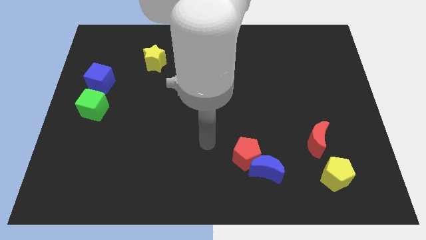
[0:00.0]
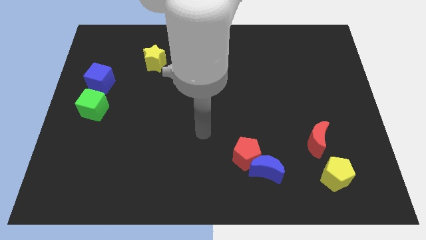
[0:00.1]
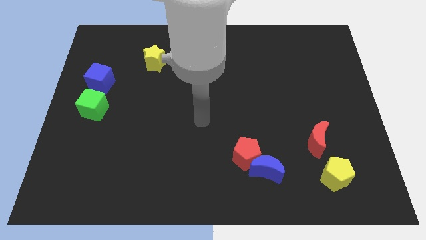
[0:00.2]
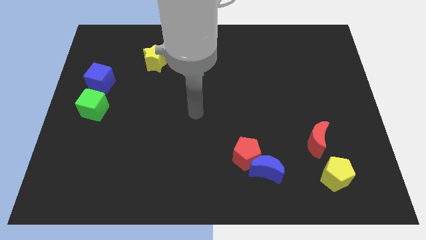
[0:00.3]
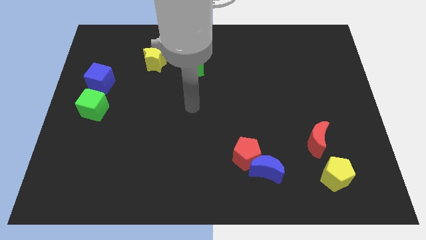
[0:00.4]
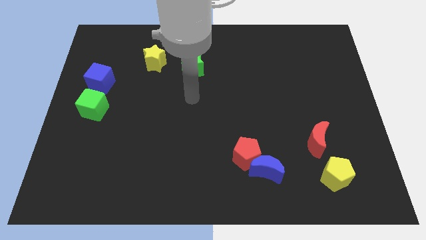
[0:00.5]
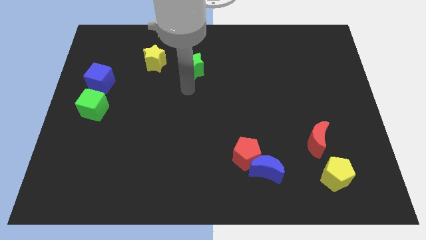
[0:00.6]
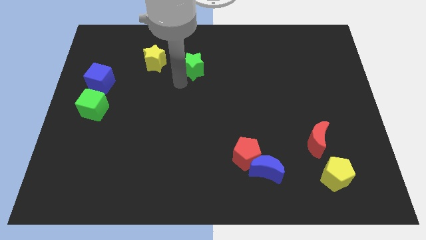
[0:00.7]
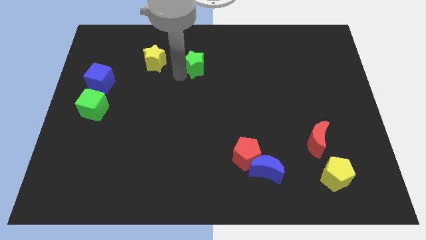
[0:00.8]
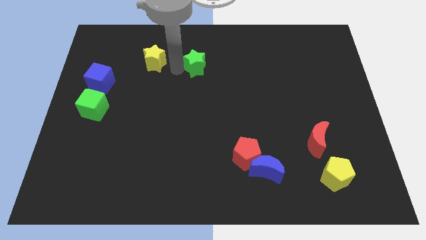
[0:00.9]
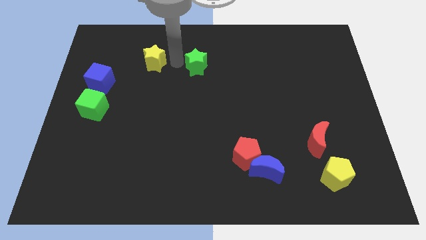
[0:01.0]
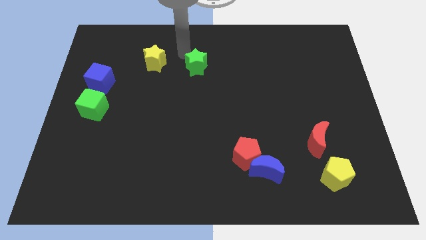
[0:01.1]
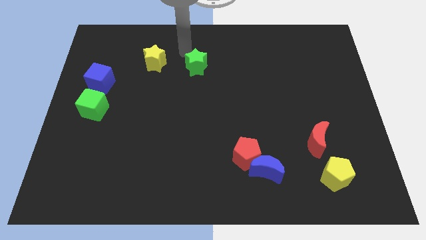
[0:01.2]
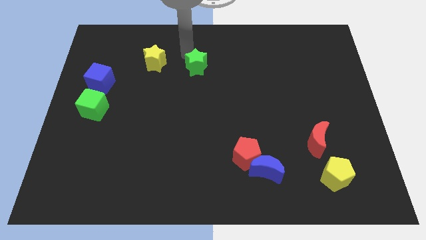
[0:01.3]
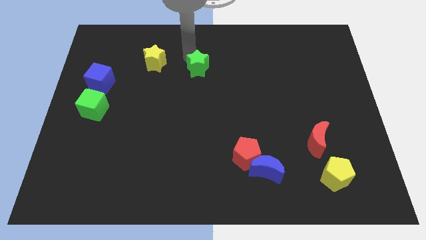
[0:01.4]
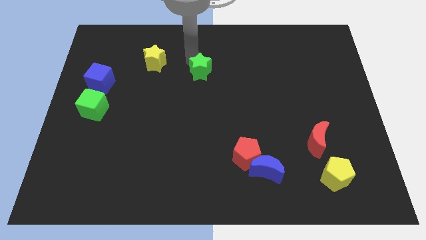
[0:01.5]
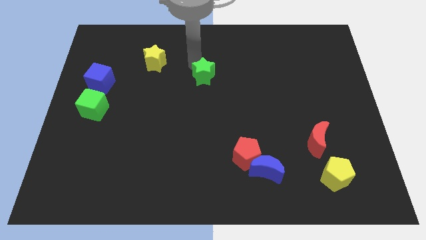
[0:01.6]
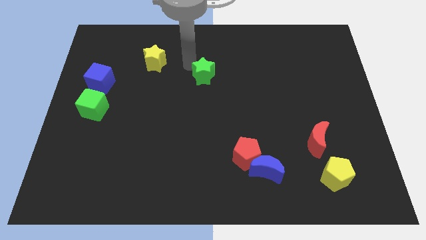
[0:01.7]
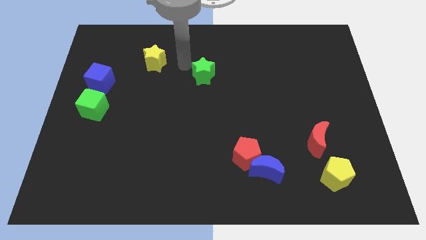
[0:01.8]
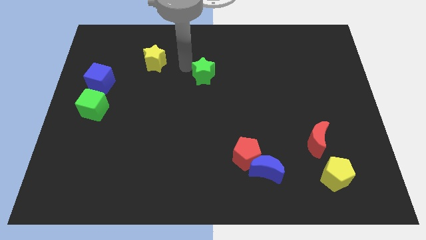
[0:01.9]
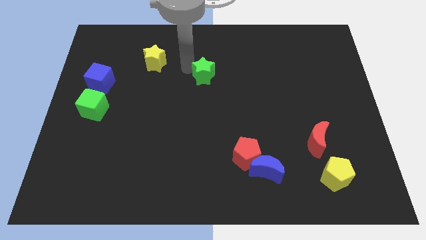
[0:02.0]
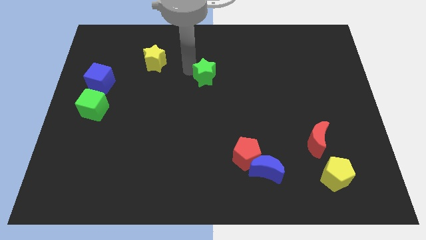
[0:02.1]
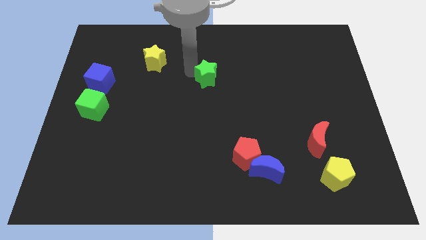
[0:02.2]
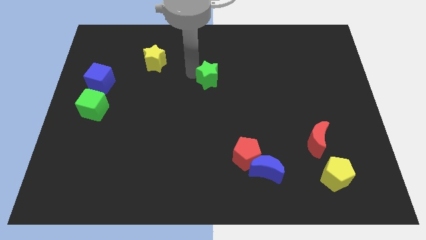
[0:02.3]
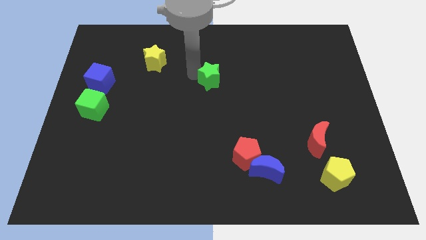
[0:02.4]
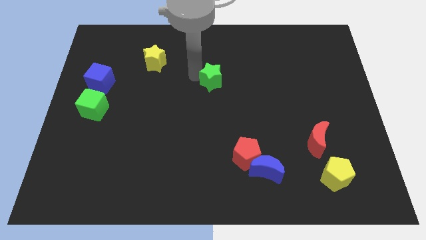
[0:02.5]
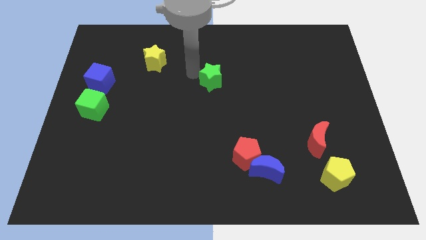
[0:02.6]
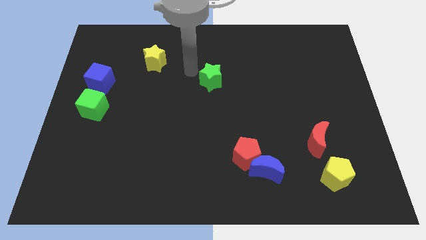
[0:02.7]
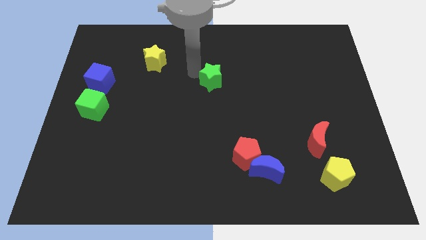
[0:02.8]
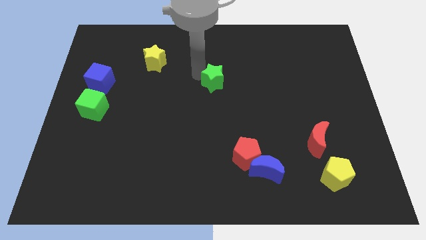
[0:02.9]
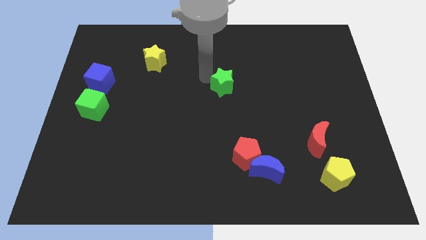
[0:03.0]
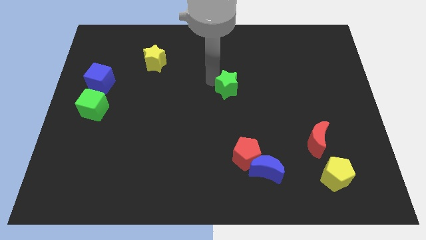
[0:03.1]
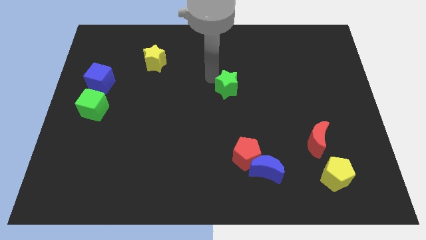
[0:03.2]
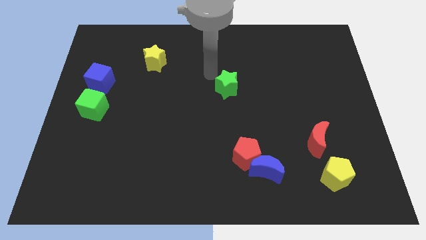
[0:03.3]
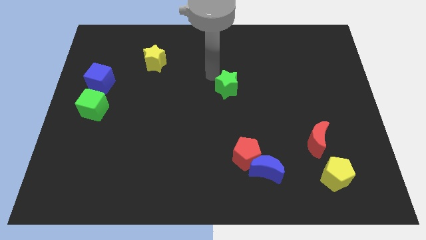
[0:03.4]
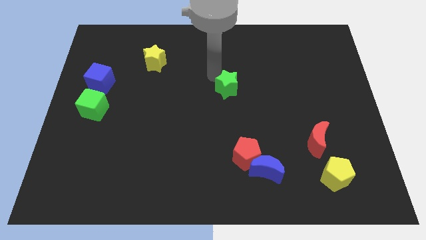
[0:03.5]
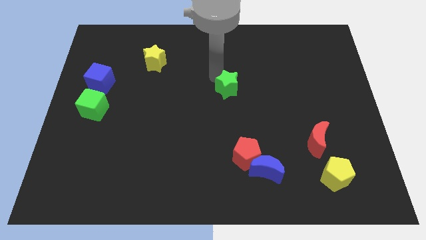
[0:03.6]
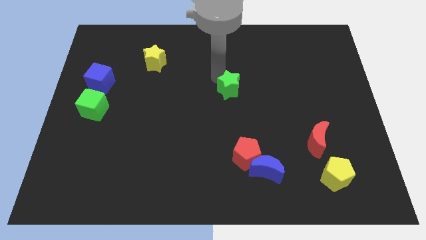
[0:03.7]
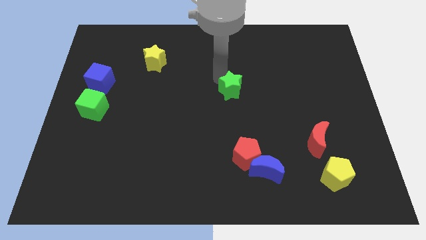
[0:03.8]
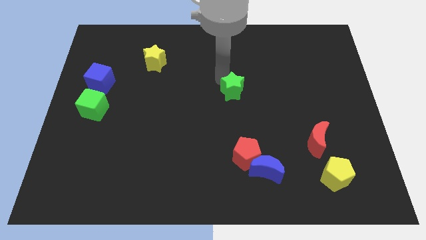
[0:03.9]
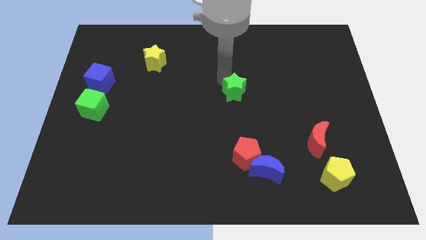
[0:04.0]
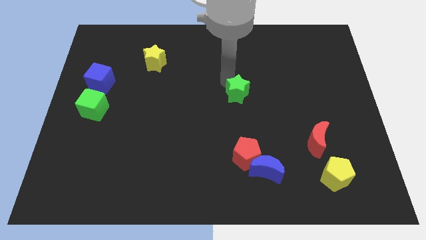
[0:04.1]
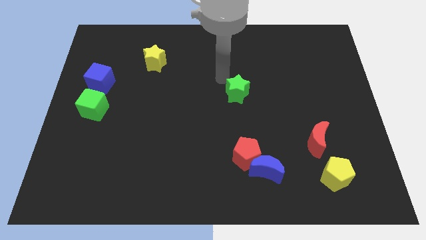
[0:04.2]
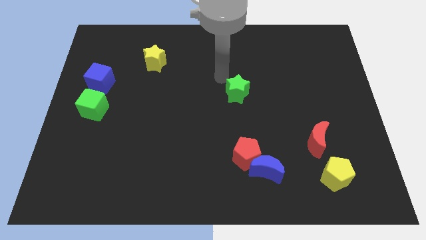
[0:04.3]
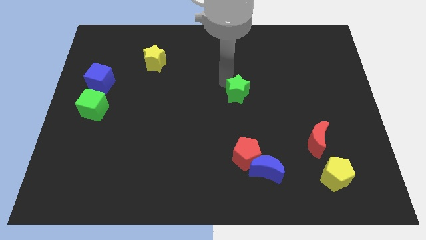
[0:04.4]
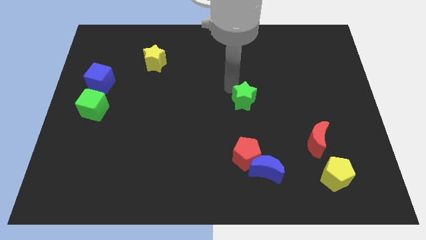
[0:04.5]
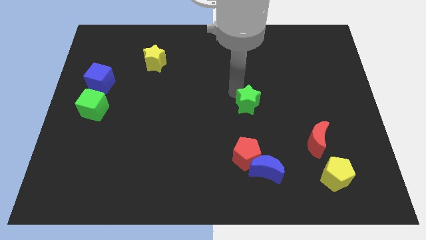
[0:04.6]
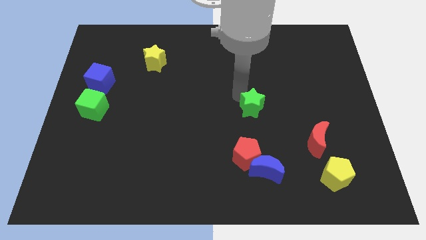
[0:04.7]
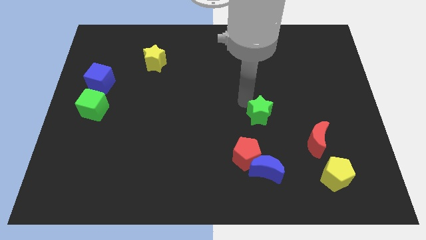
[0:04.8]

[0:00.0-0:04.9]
push the green star downwards and to the right diagonally

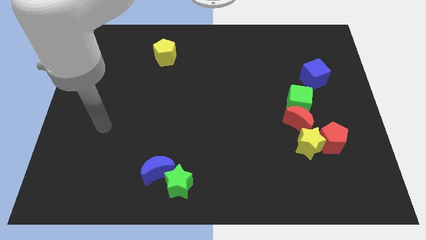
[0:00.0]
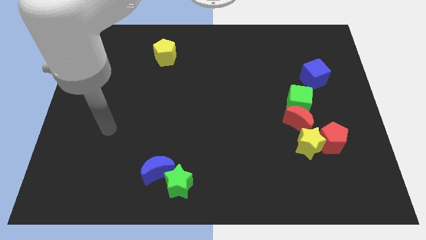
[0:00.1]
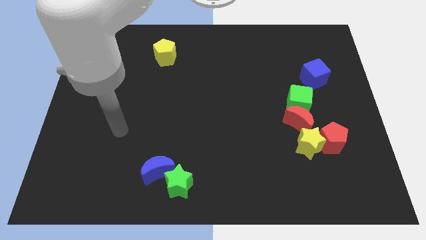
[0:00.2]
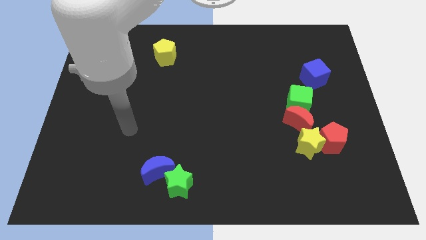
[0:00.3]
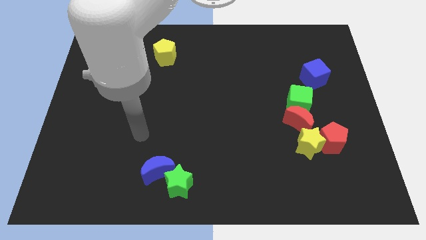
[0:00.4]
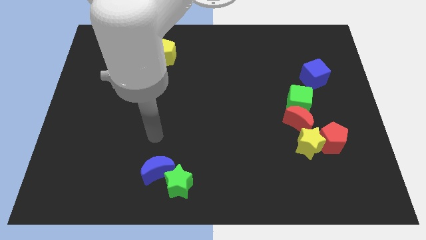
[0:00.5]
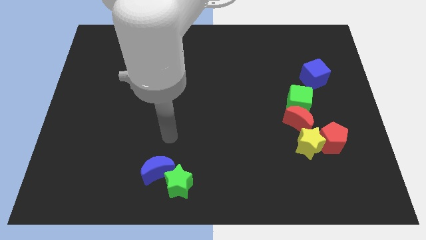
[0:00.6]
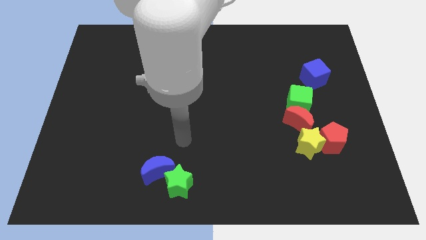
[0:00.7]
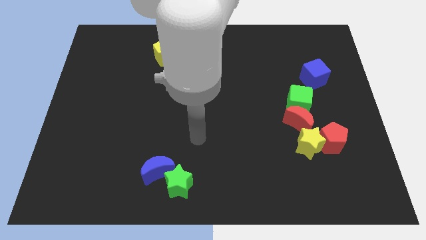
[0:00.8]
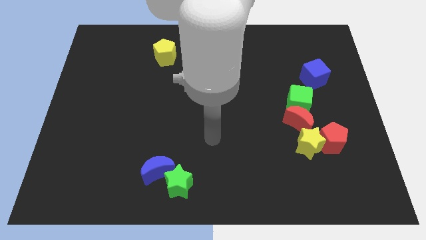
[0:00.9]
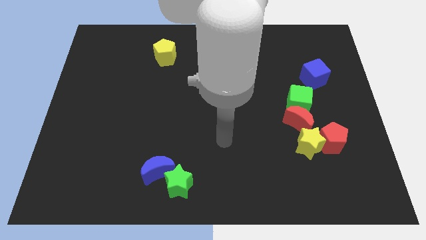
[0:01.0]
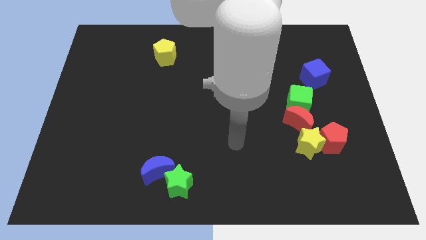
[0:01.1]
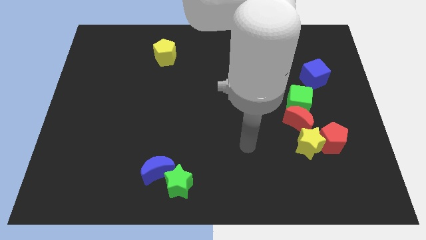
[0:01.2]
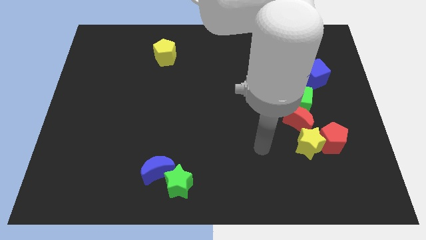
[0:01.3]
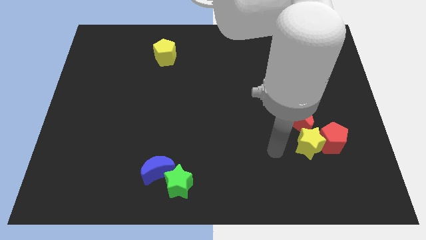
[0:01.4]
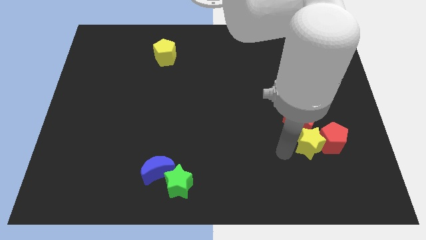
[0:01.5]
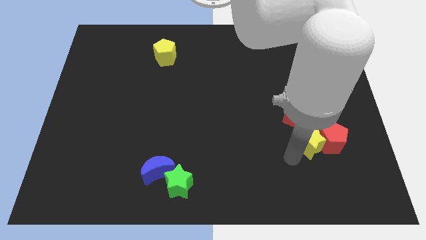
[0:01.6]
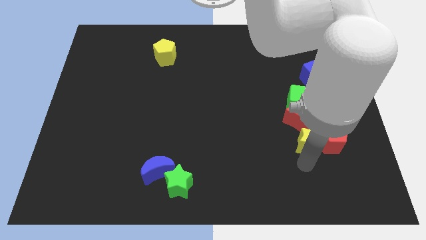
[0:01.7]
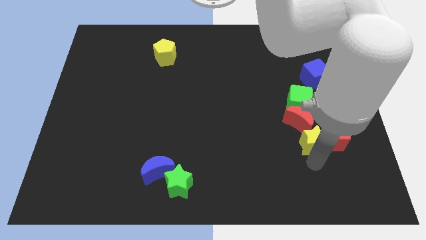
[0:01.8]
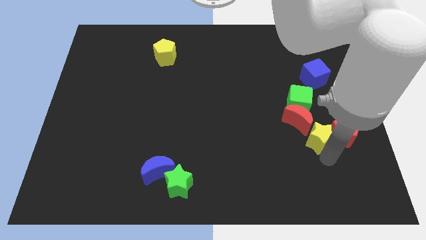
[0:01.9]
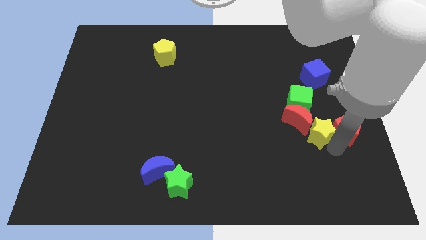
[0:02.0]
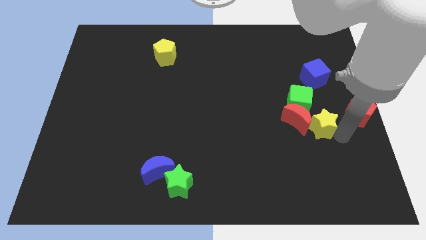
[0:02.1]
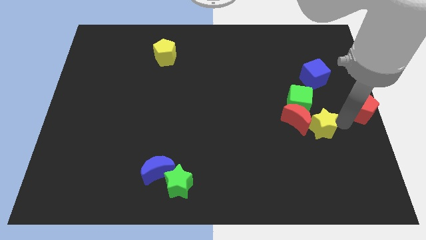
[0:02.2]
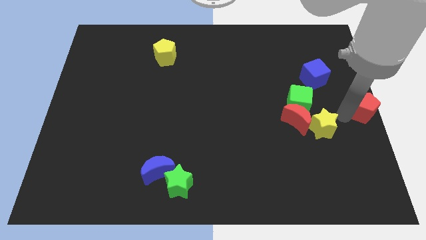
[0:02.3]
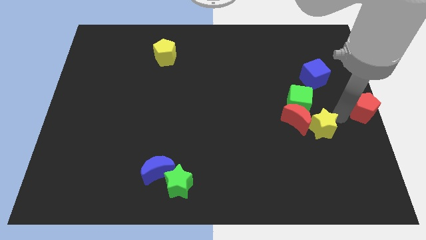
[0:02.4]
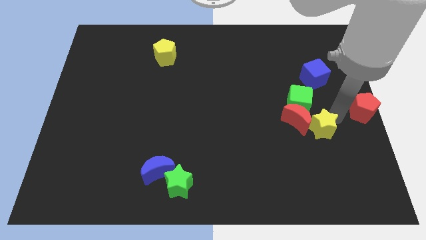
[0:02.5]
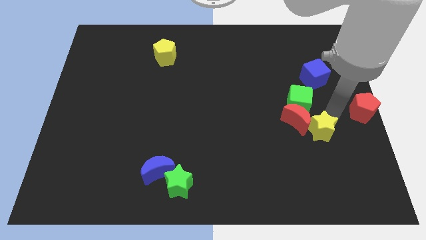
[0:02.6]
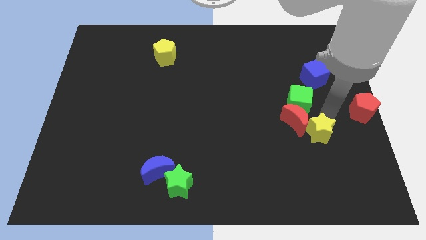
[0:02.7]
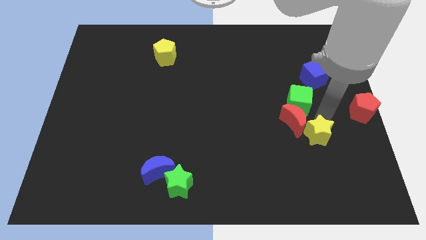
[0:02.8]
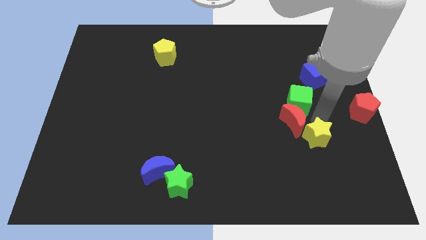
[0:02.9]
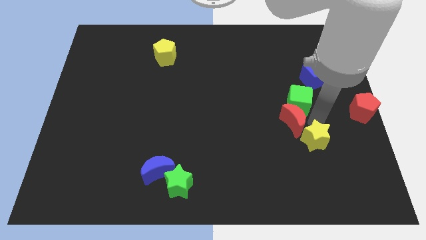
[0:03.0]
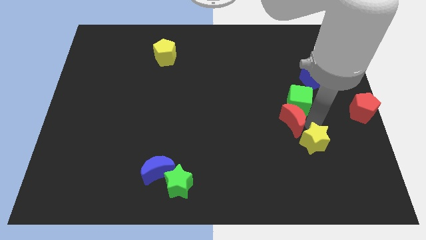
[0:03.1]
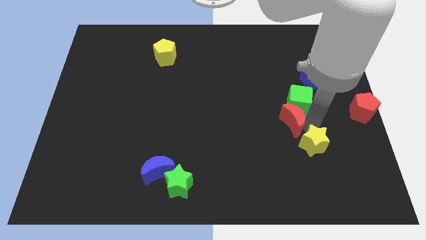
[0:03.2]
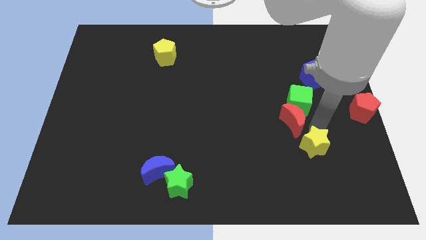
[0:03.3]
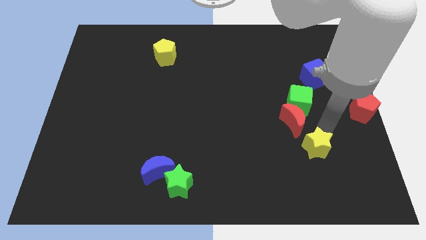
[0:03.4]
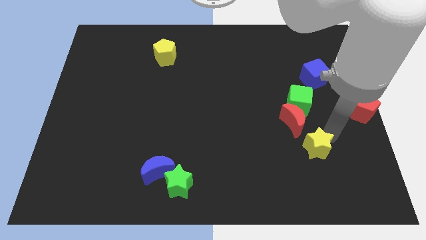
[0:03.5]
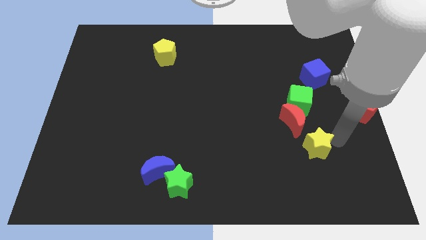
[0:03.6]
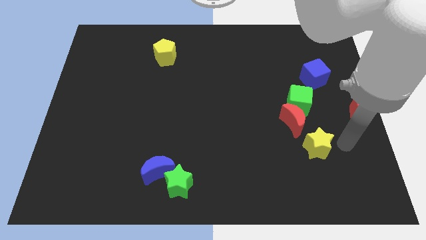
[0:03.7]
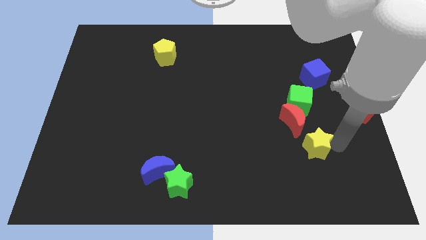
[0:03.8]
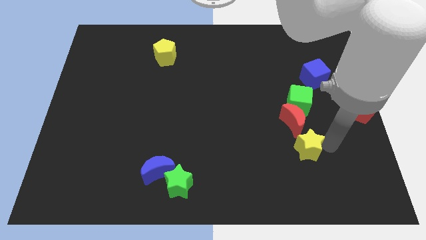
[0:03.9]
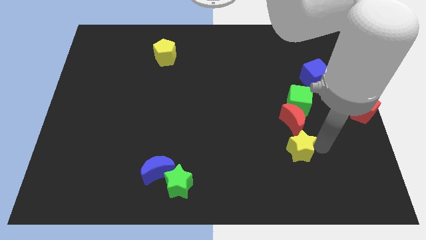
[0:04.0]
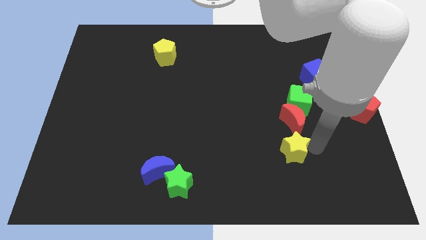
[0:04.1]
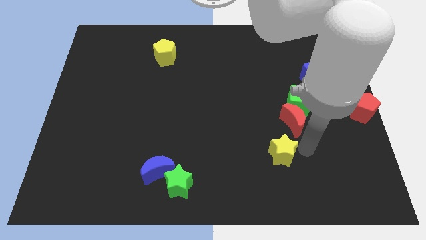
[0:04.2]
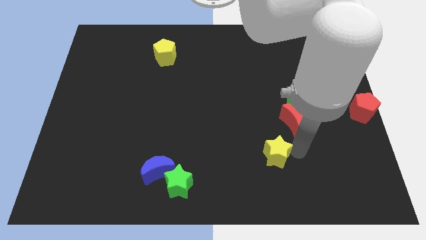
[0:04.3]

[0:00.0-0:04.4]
push the yellow star somewhat to the left
